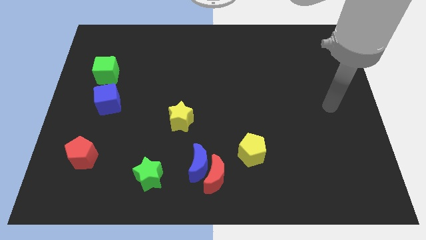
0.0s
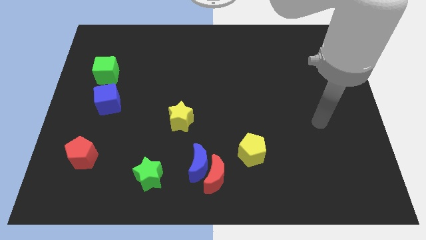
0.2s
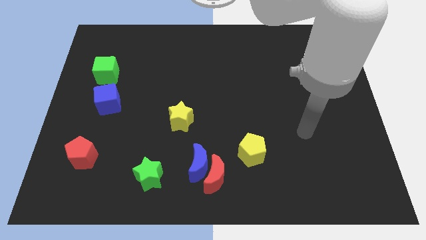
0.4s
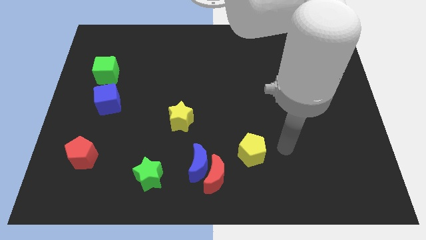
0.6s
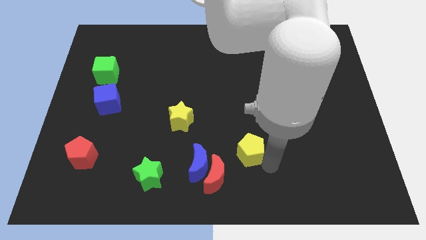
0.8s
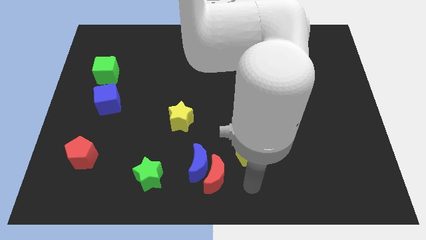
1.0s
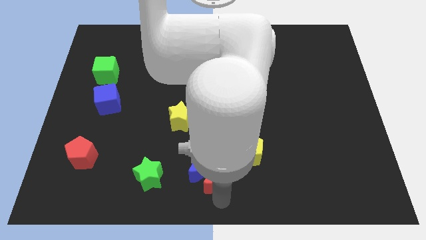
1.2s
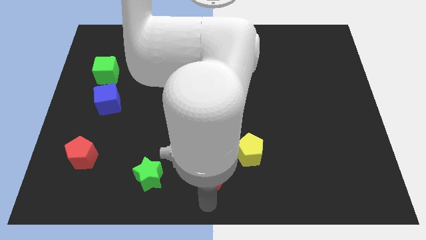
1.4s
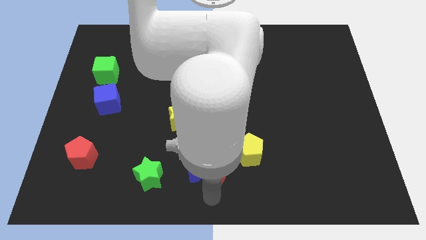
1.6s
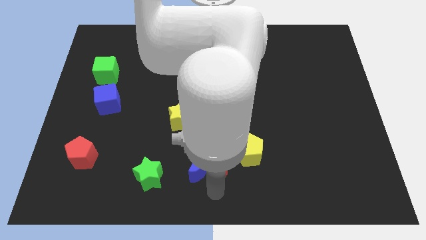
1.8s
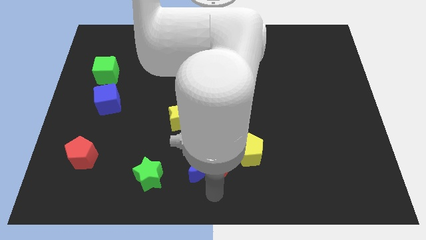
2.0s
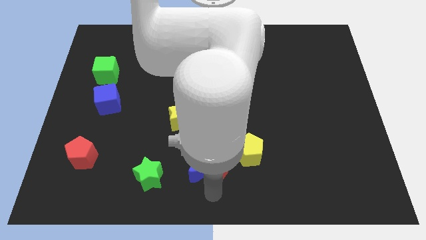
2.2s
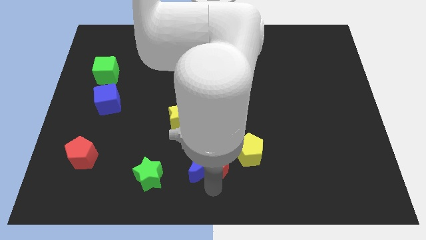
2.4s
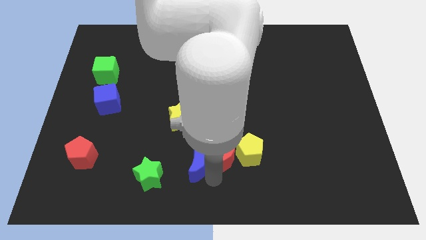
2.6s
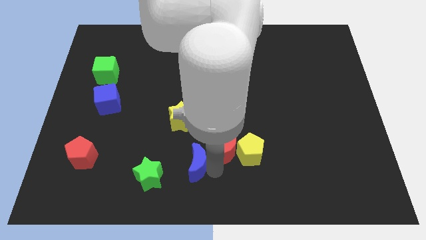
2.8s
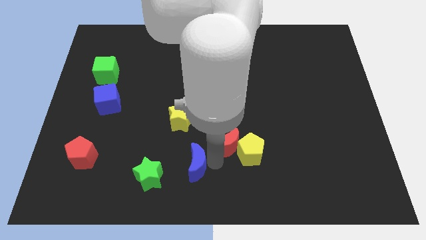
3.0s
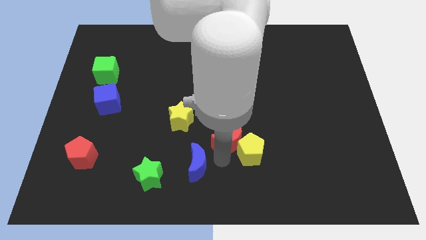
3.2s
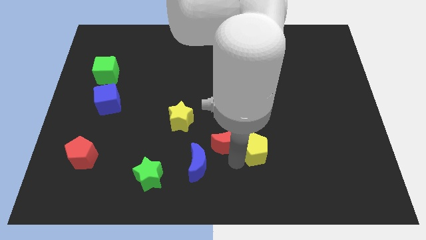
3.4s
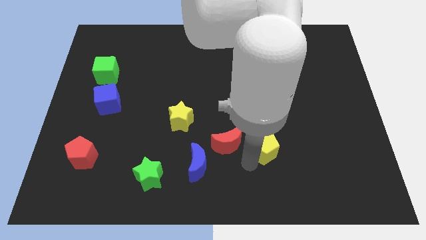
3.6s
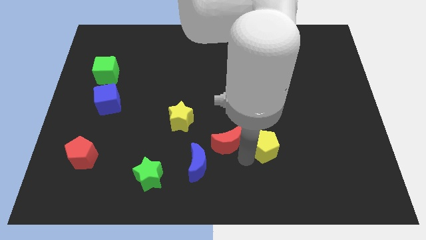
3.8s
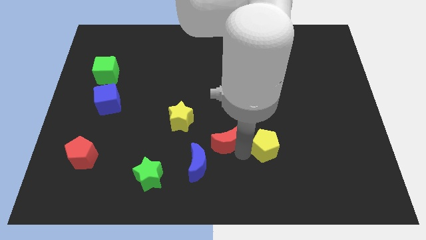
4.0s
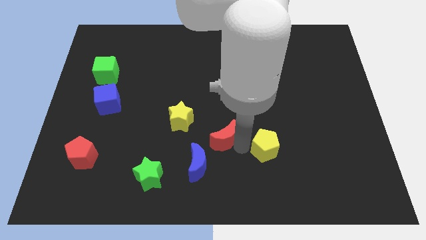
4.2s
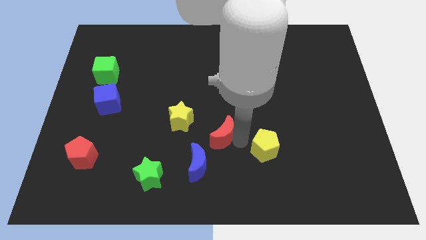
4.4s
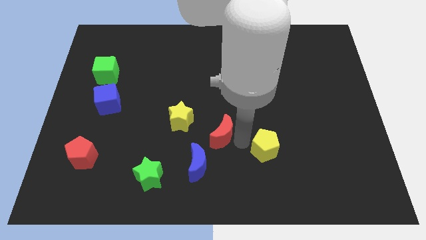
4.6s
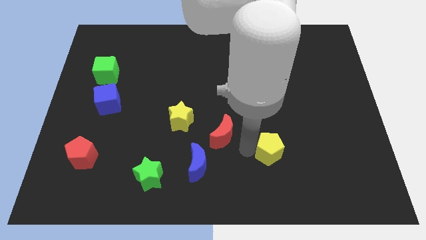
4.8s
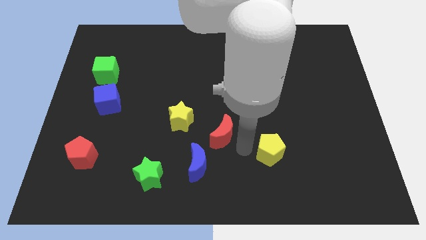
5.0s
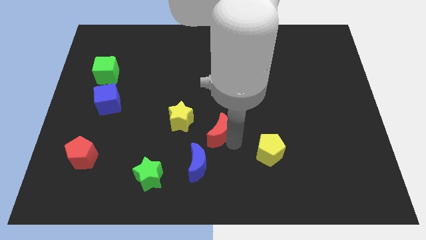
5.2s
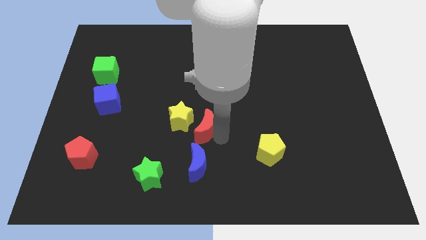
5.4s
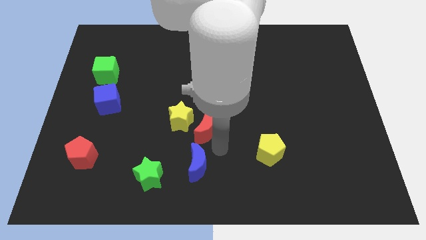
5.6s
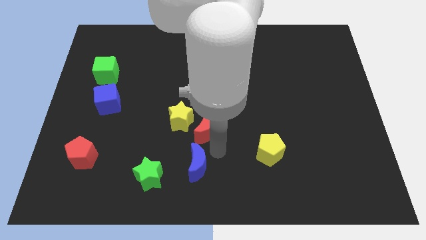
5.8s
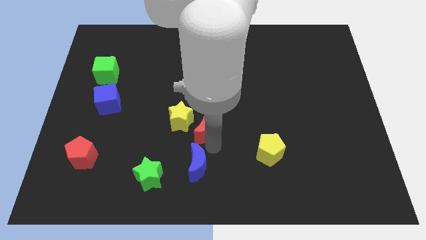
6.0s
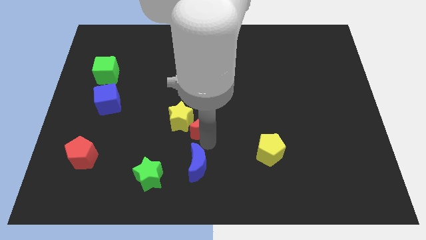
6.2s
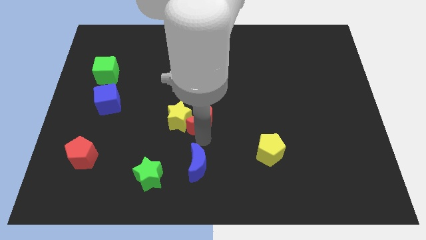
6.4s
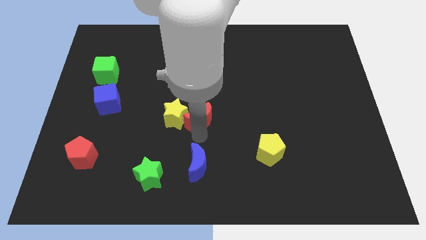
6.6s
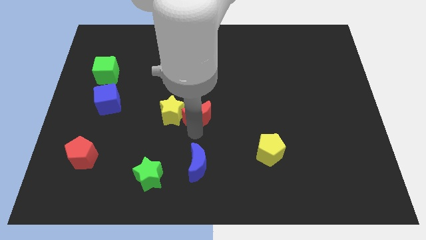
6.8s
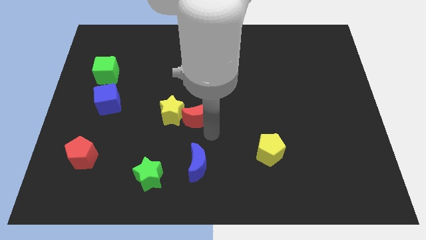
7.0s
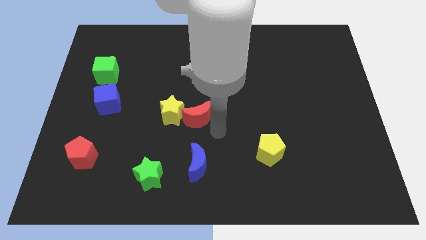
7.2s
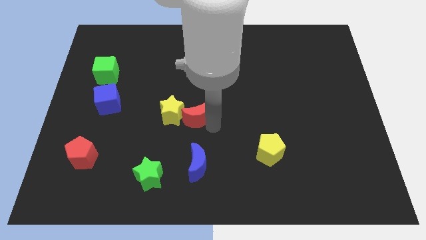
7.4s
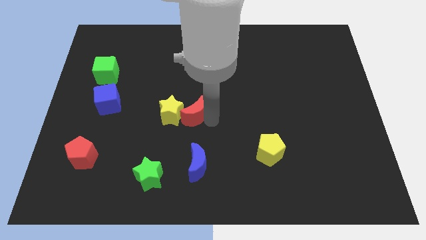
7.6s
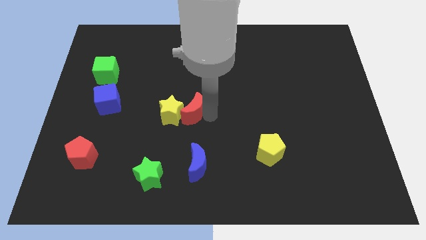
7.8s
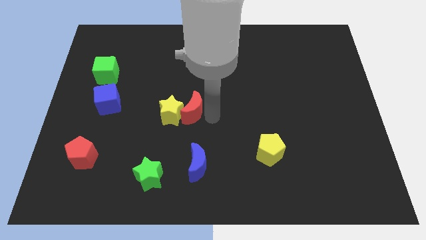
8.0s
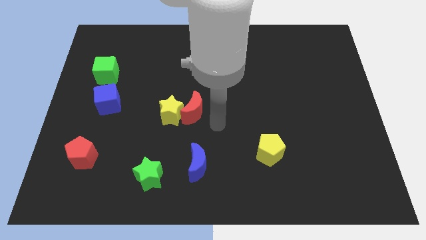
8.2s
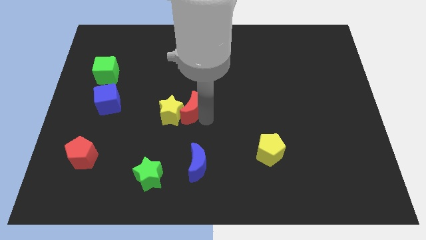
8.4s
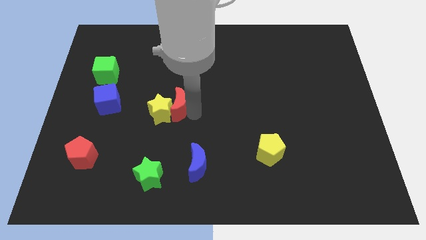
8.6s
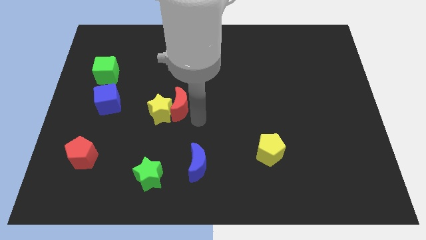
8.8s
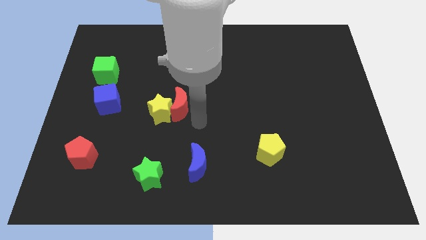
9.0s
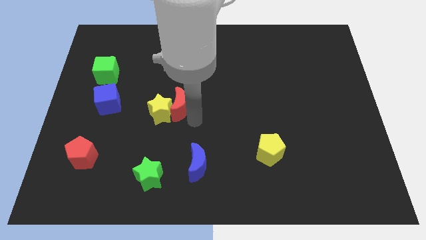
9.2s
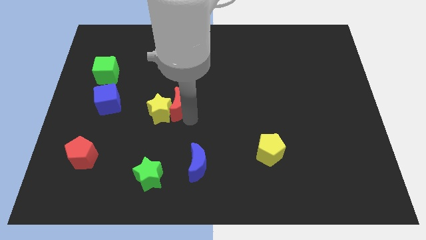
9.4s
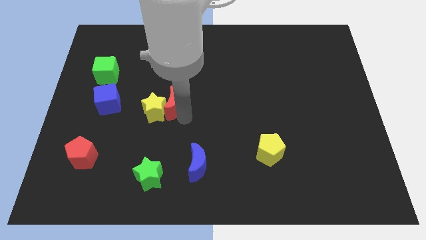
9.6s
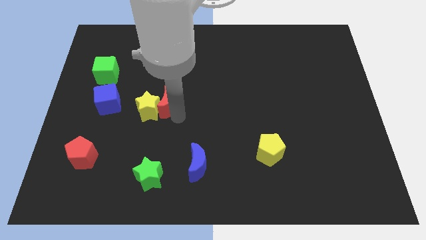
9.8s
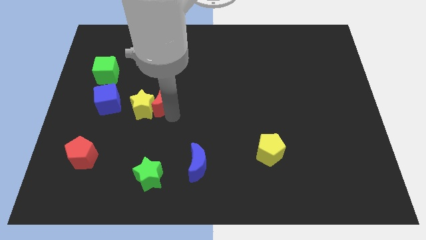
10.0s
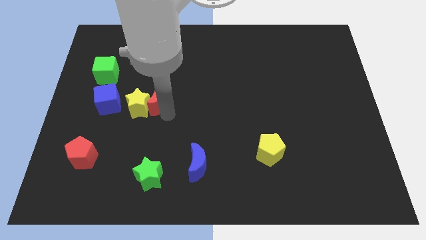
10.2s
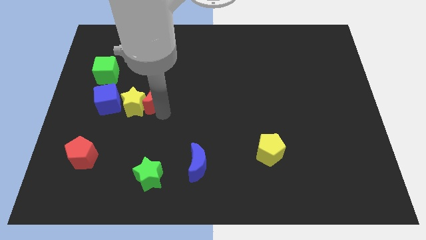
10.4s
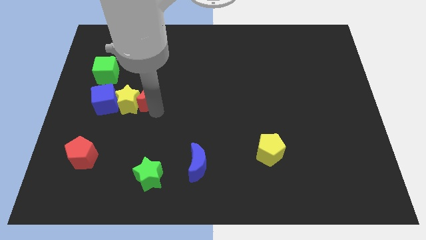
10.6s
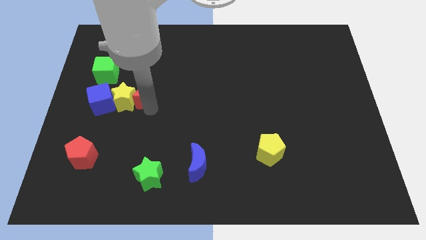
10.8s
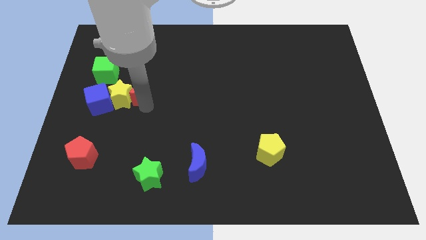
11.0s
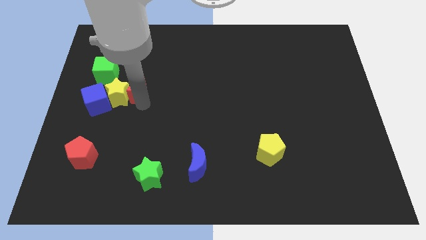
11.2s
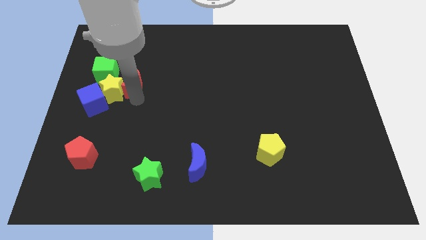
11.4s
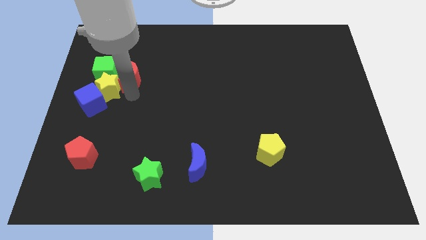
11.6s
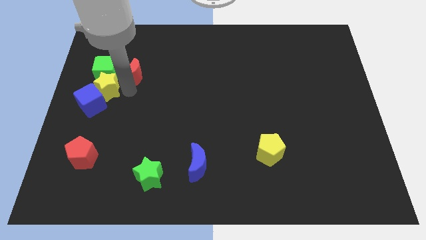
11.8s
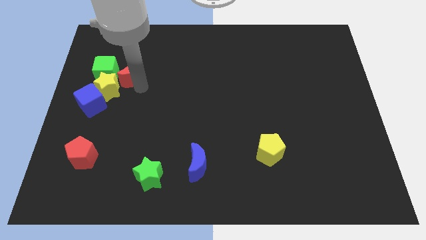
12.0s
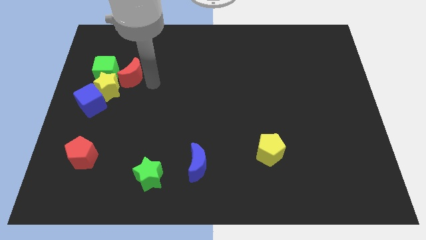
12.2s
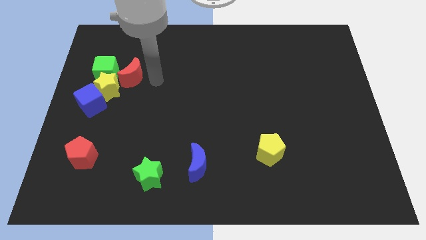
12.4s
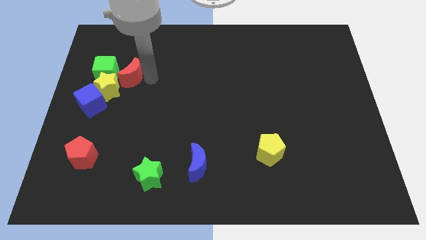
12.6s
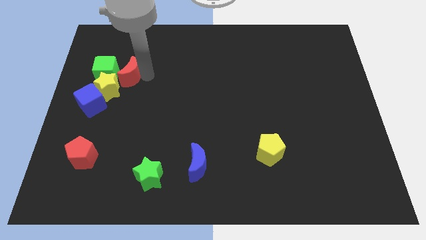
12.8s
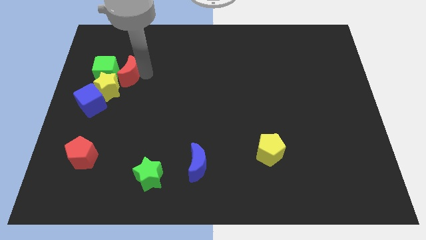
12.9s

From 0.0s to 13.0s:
push the red moon towards the green cube

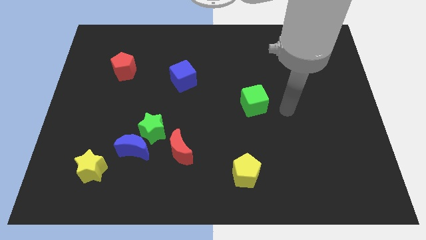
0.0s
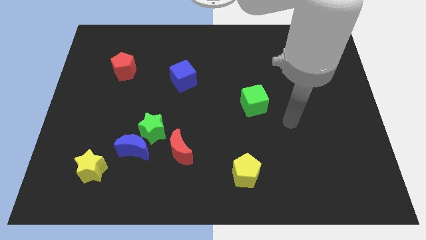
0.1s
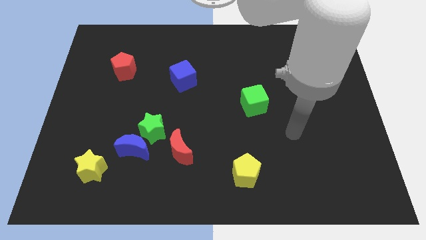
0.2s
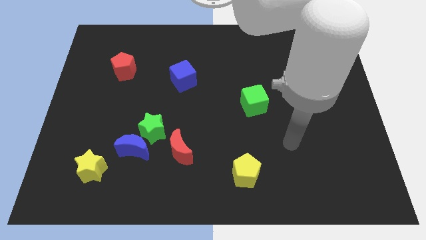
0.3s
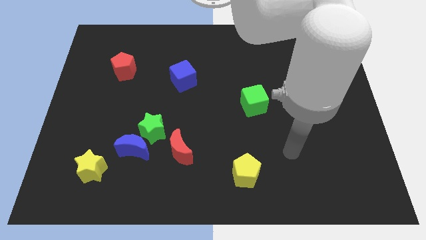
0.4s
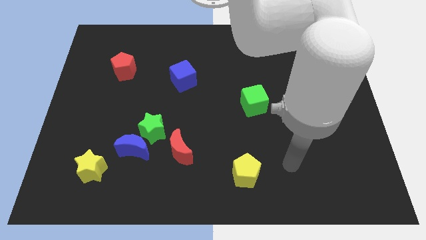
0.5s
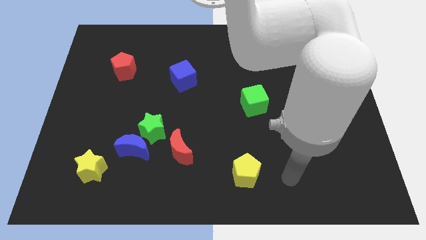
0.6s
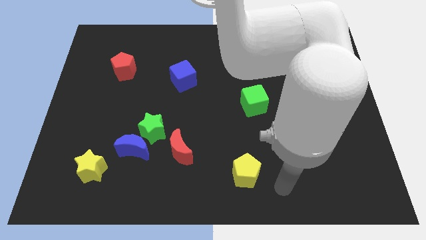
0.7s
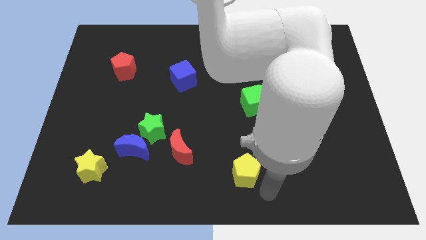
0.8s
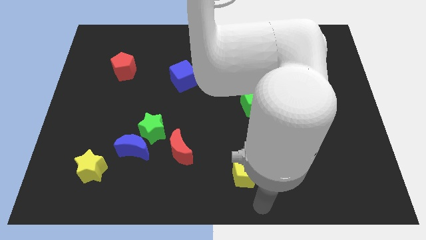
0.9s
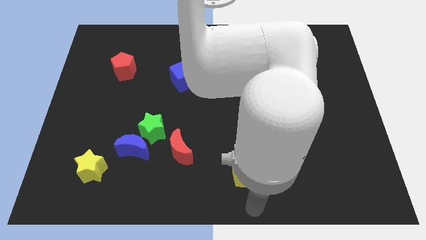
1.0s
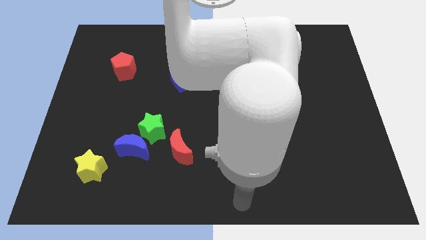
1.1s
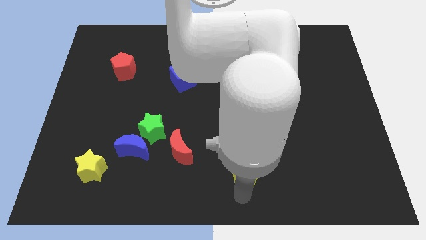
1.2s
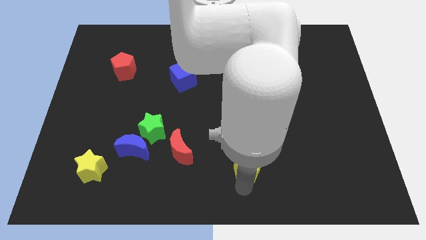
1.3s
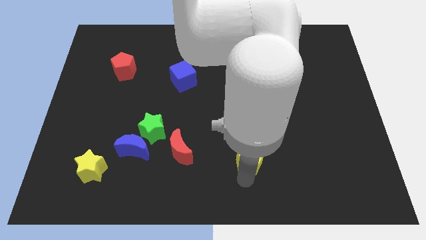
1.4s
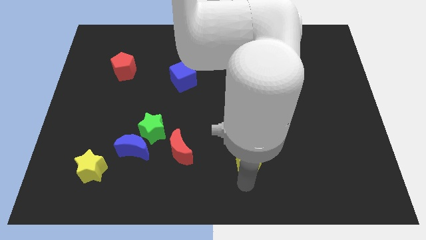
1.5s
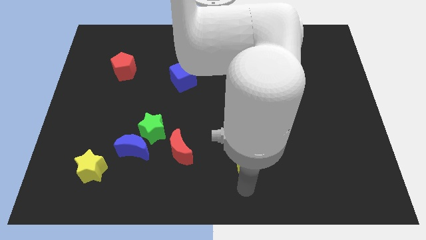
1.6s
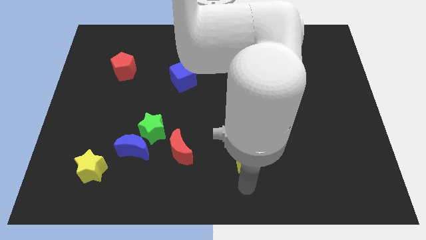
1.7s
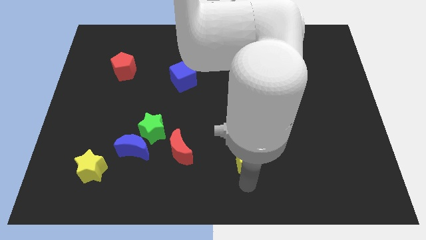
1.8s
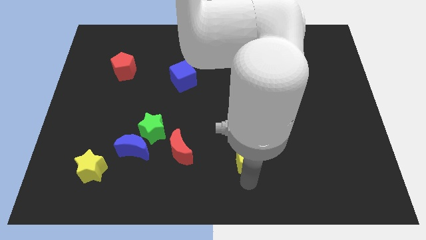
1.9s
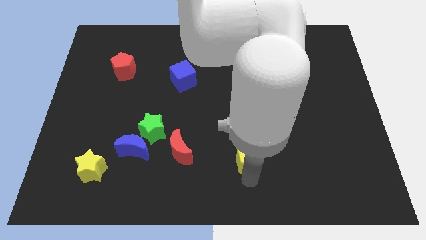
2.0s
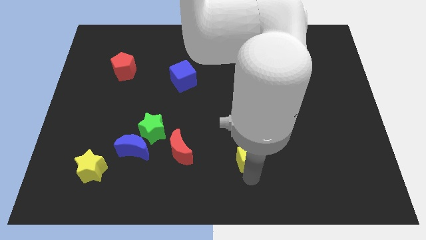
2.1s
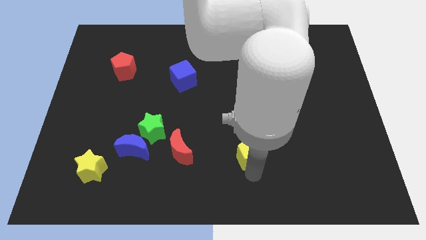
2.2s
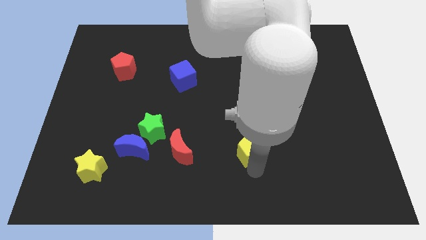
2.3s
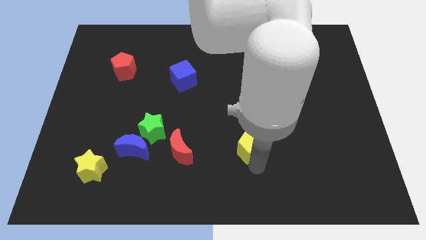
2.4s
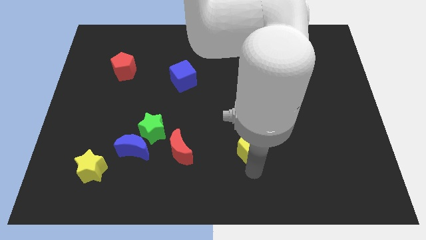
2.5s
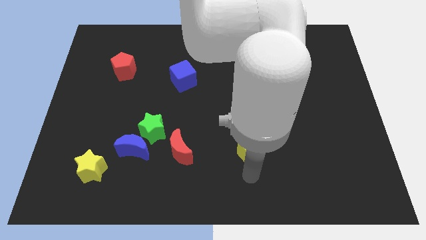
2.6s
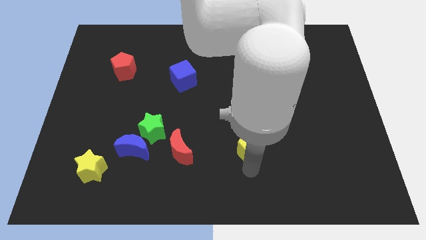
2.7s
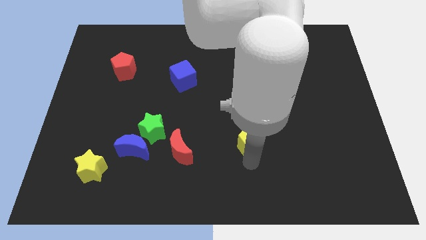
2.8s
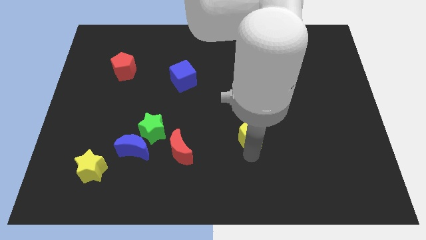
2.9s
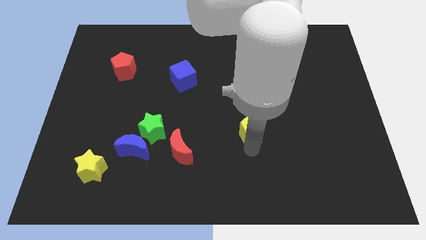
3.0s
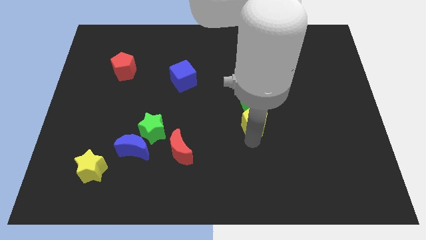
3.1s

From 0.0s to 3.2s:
slide the yellow pentagon towards the green cube
